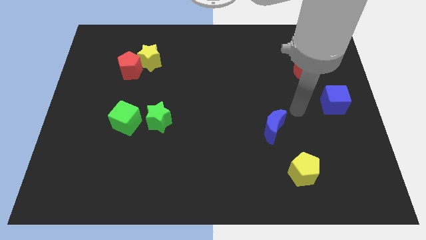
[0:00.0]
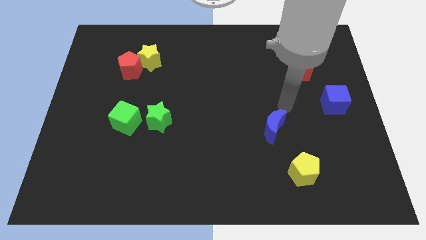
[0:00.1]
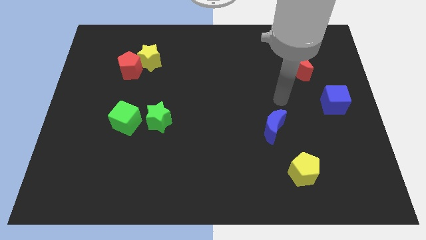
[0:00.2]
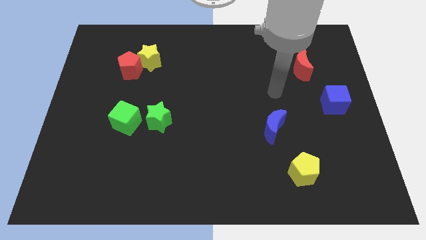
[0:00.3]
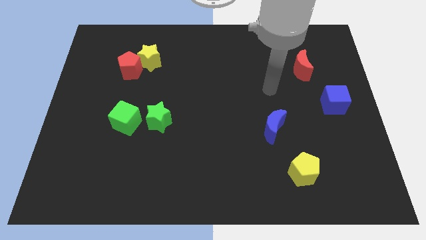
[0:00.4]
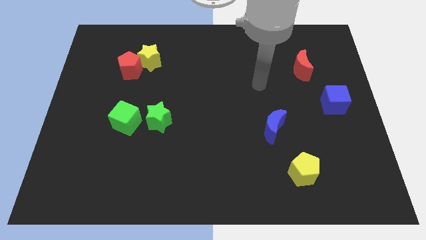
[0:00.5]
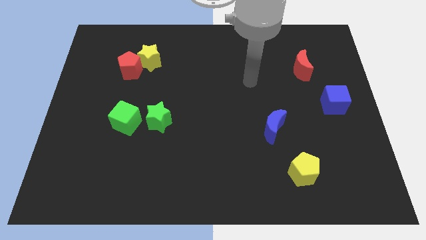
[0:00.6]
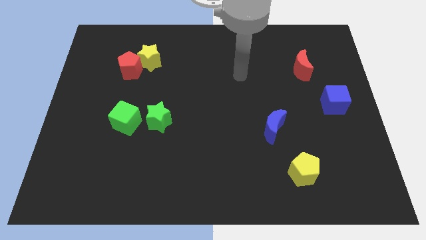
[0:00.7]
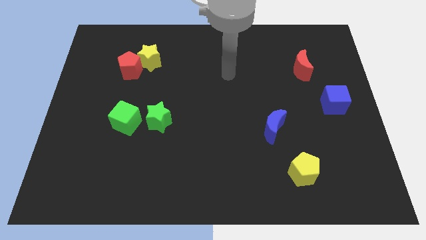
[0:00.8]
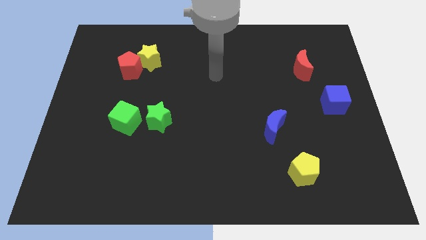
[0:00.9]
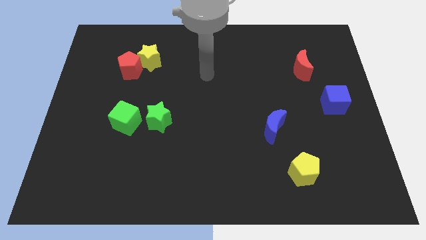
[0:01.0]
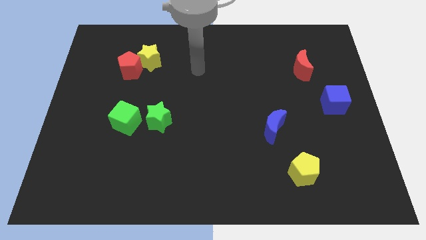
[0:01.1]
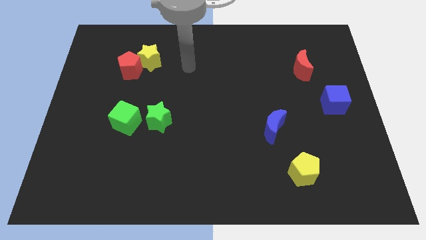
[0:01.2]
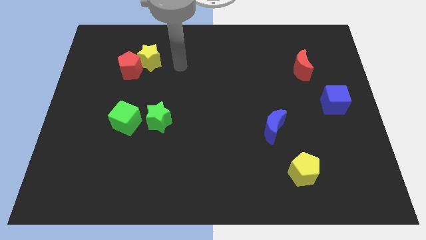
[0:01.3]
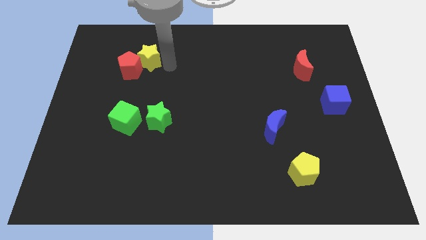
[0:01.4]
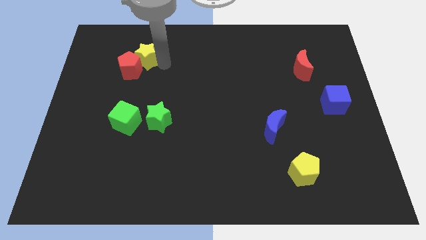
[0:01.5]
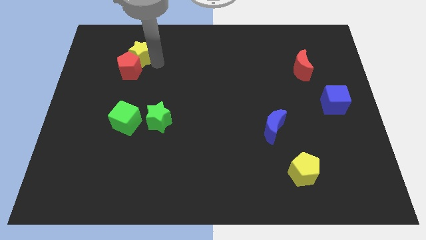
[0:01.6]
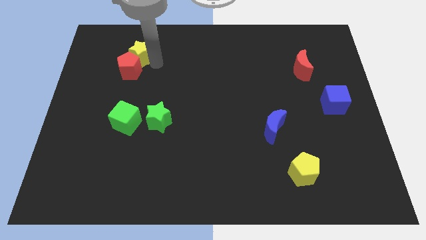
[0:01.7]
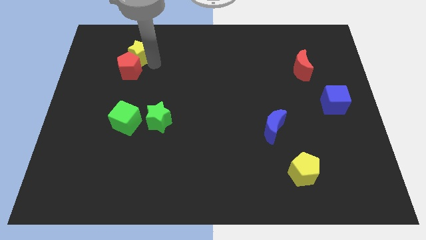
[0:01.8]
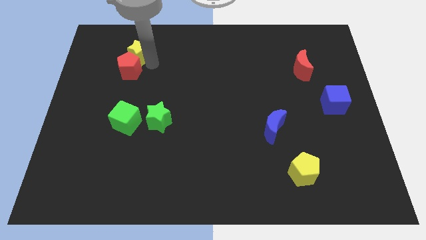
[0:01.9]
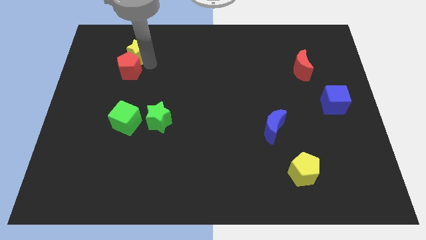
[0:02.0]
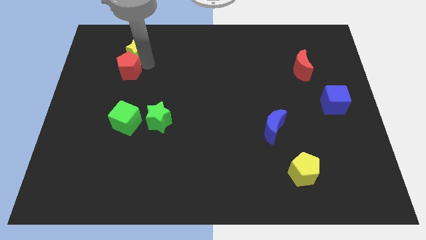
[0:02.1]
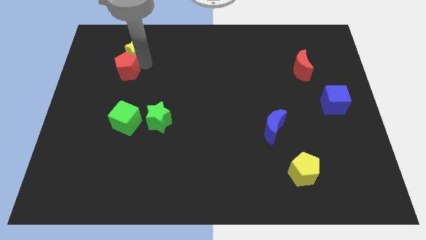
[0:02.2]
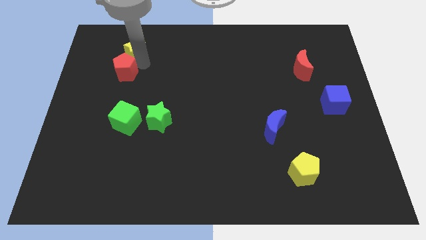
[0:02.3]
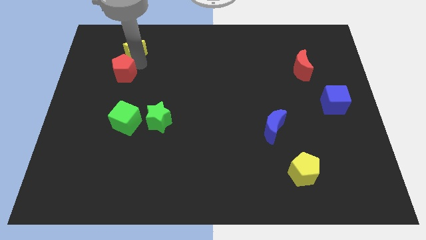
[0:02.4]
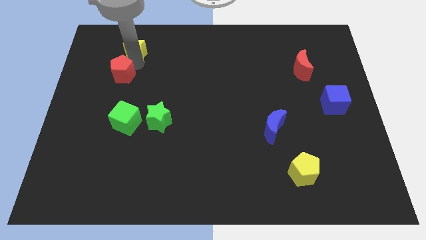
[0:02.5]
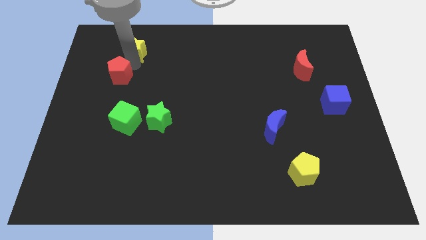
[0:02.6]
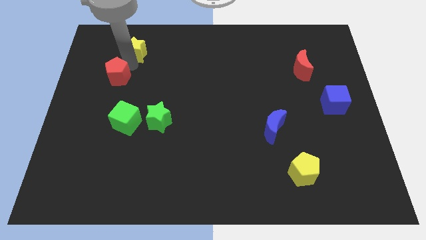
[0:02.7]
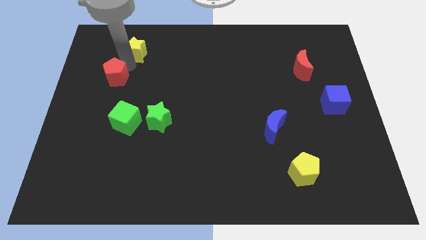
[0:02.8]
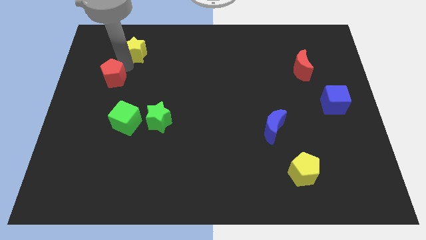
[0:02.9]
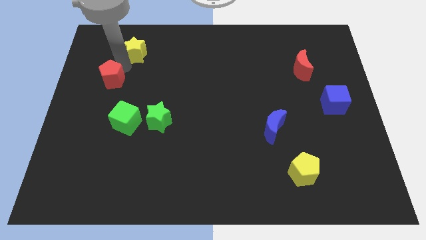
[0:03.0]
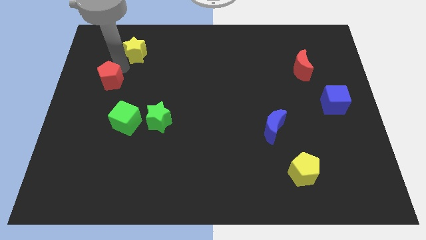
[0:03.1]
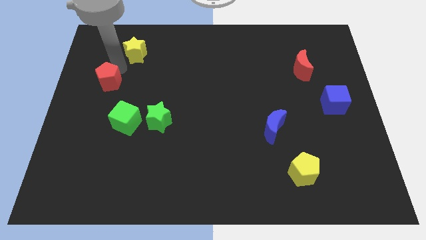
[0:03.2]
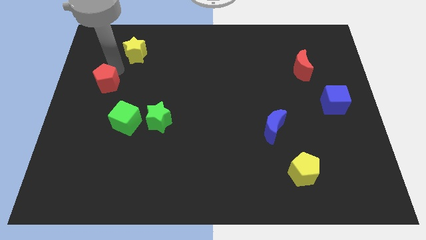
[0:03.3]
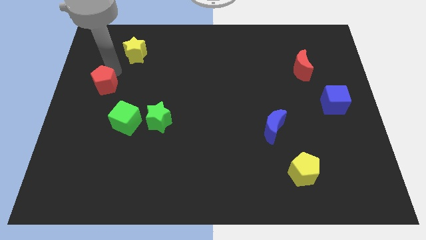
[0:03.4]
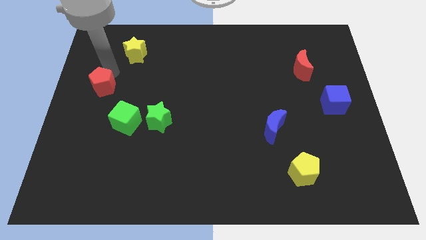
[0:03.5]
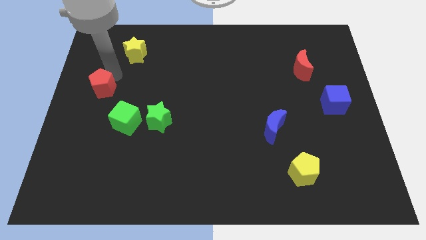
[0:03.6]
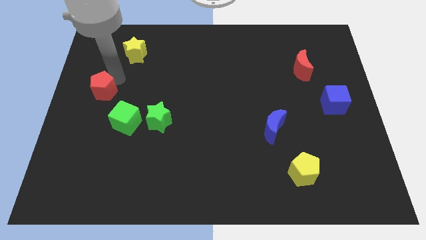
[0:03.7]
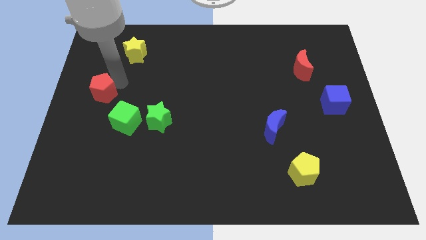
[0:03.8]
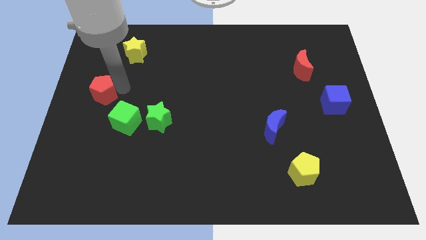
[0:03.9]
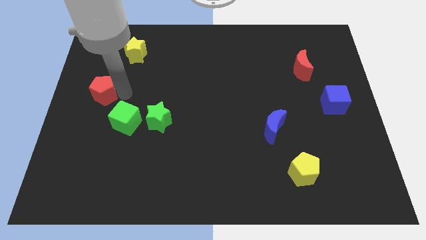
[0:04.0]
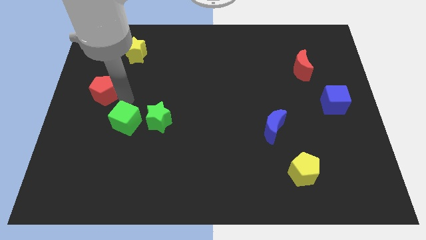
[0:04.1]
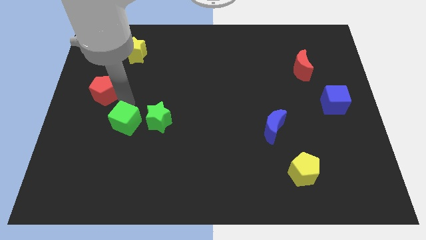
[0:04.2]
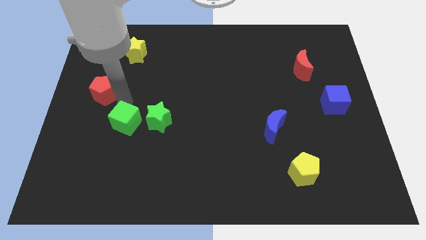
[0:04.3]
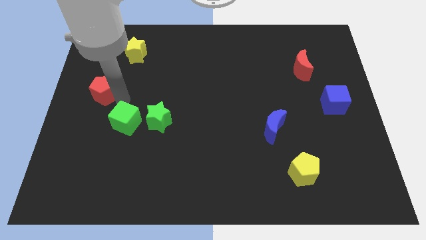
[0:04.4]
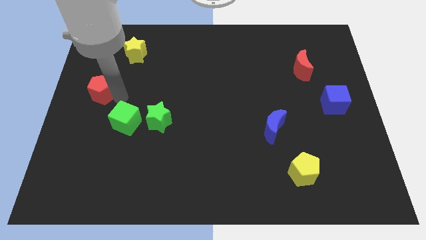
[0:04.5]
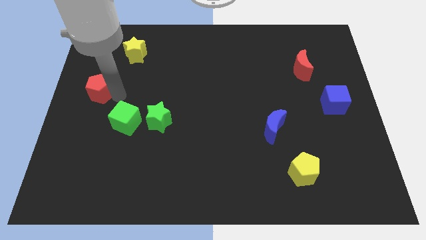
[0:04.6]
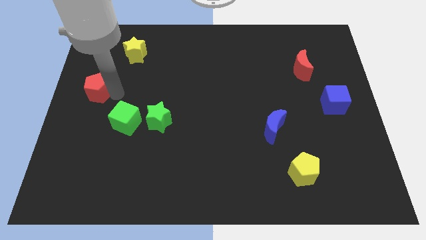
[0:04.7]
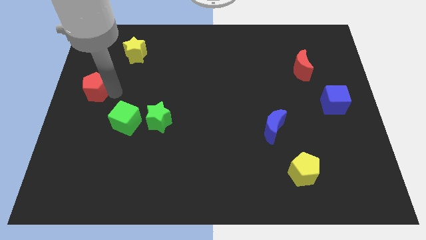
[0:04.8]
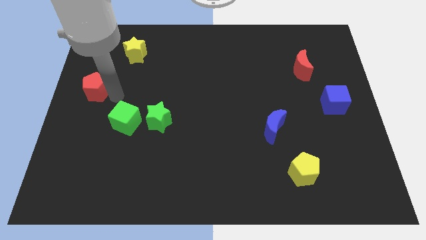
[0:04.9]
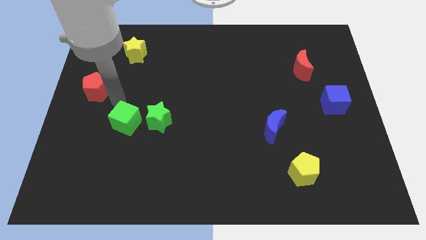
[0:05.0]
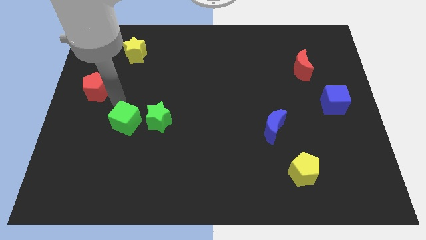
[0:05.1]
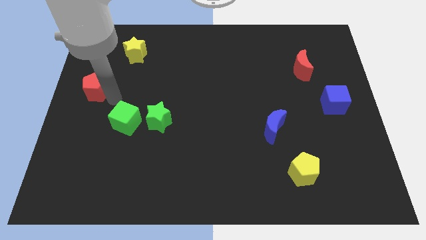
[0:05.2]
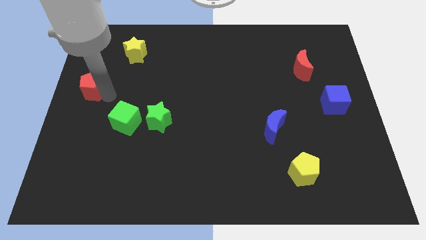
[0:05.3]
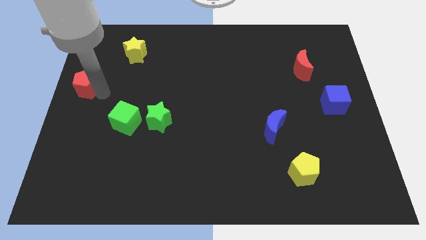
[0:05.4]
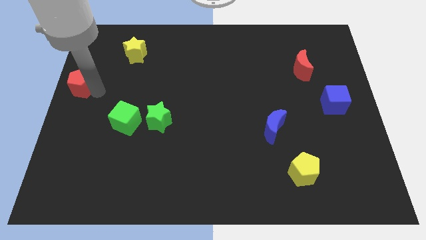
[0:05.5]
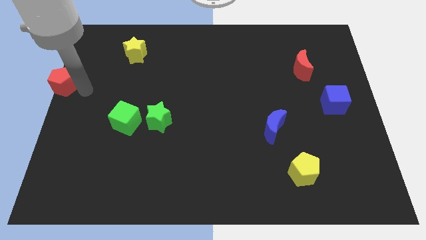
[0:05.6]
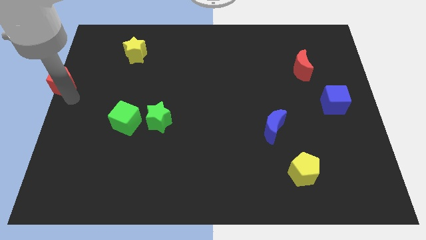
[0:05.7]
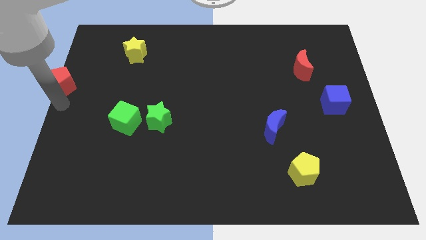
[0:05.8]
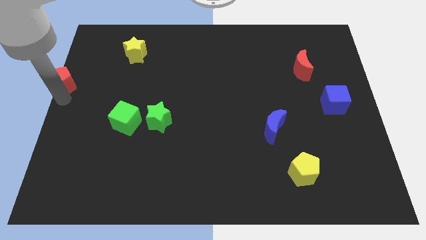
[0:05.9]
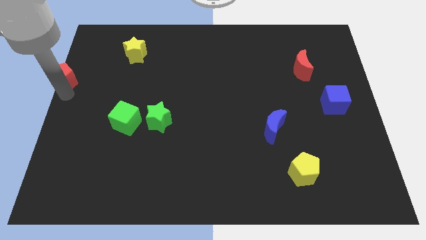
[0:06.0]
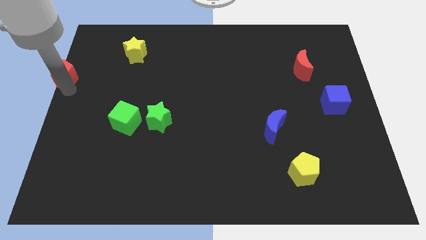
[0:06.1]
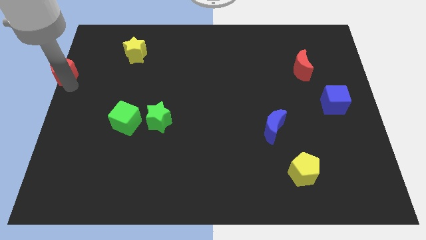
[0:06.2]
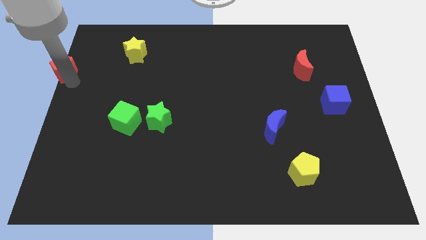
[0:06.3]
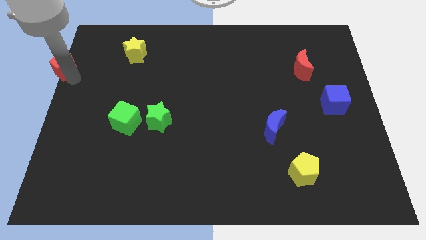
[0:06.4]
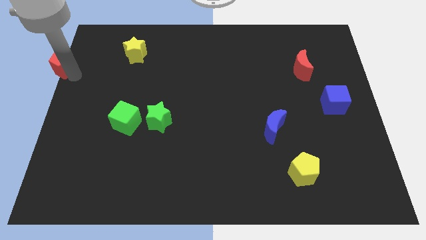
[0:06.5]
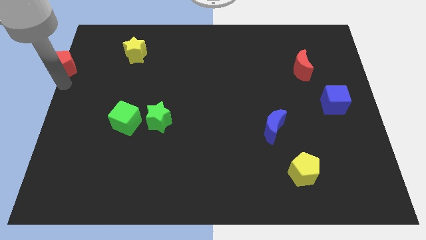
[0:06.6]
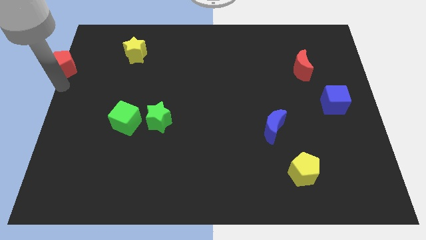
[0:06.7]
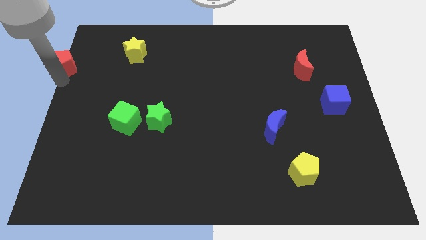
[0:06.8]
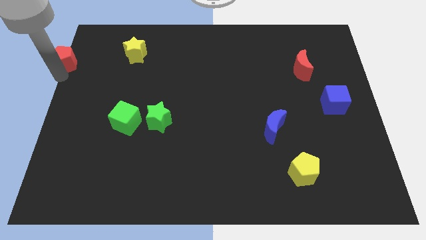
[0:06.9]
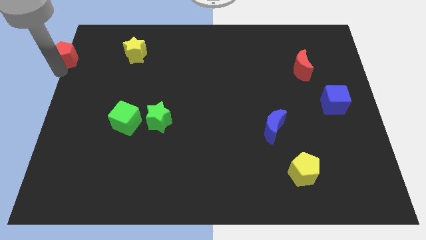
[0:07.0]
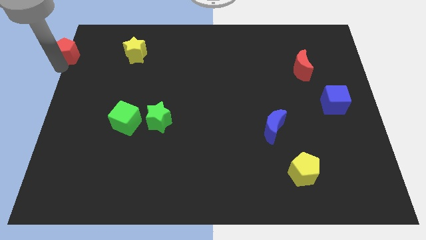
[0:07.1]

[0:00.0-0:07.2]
move the red pentagon to the top left
